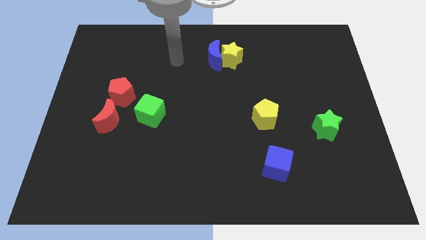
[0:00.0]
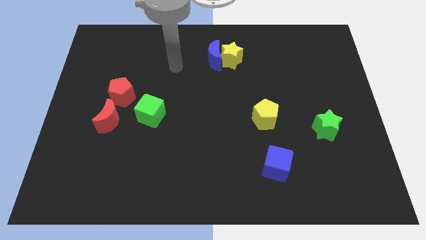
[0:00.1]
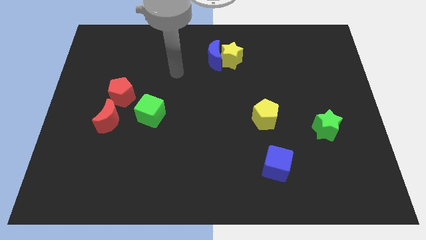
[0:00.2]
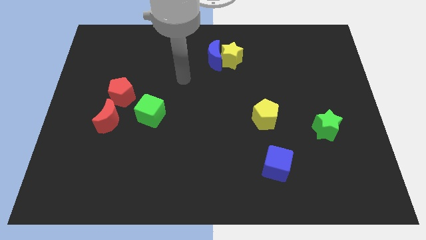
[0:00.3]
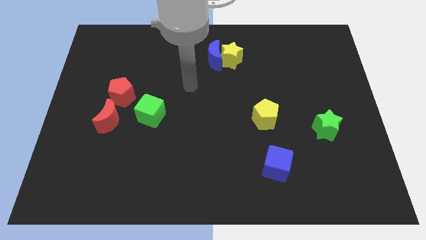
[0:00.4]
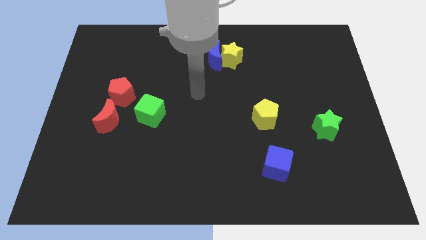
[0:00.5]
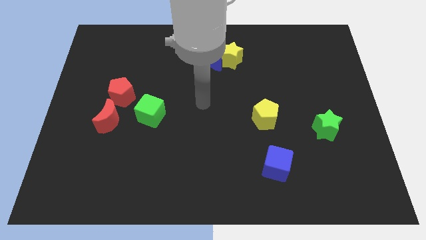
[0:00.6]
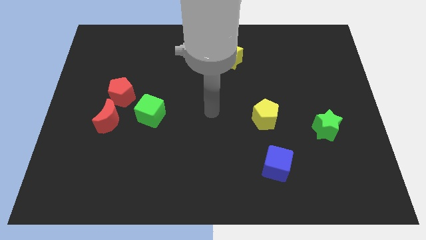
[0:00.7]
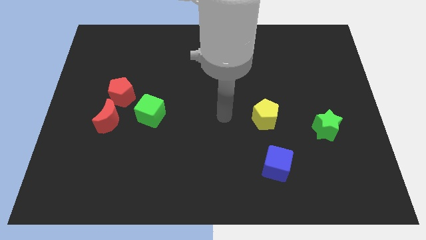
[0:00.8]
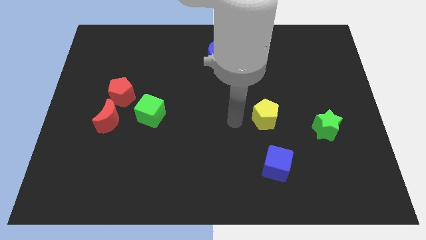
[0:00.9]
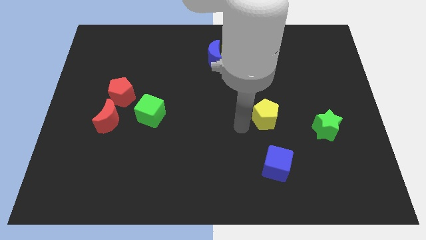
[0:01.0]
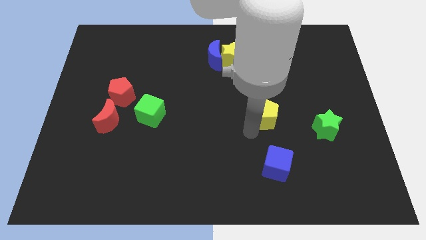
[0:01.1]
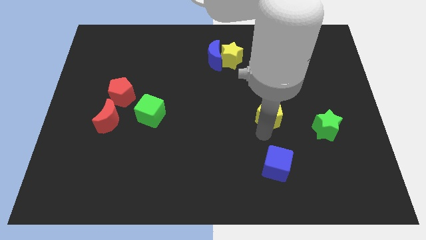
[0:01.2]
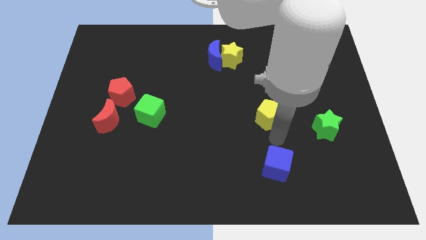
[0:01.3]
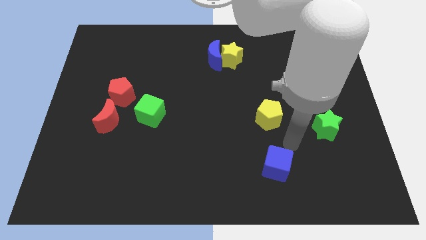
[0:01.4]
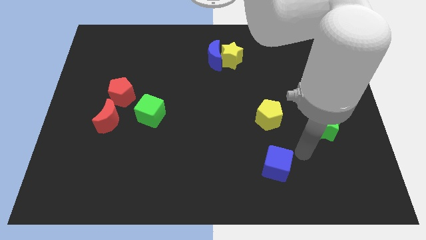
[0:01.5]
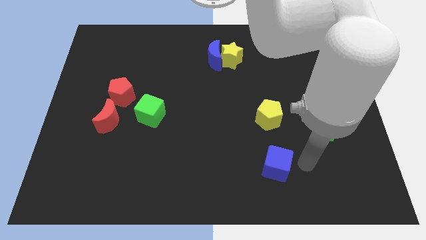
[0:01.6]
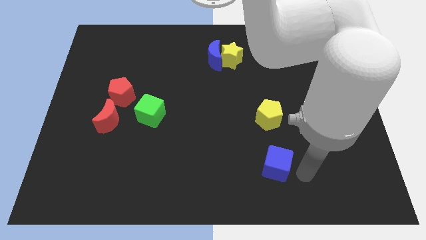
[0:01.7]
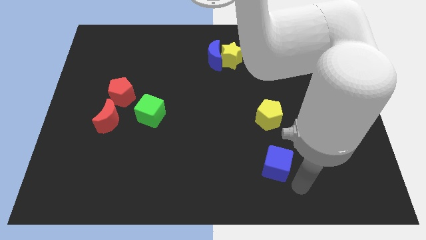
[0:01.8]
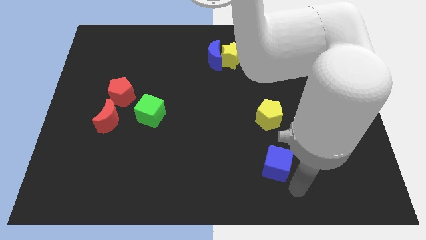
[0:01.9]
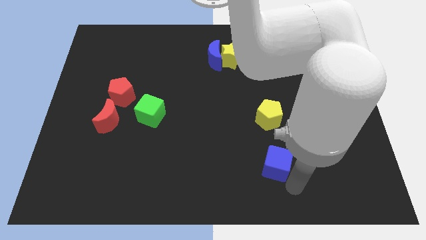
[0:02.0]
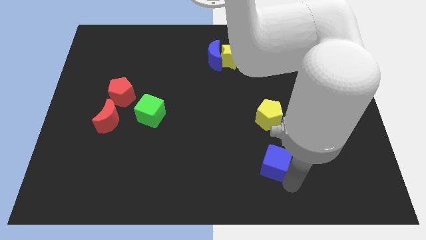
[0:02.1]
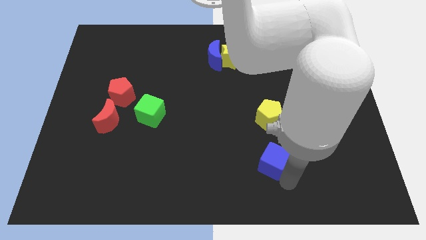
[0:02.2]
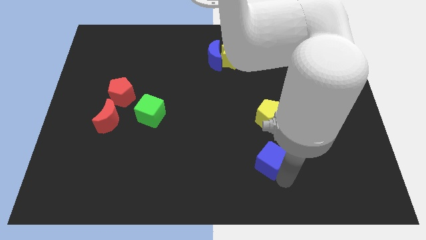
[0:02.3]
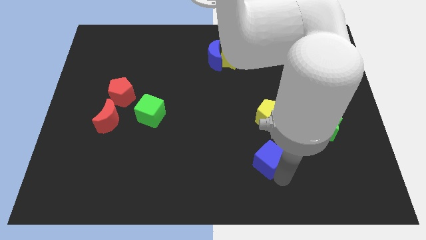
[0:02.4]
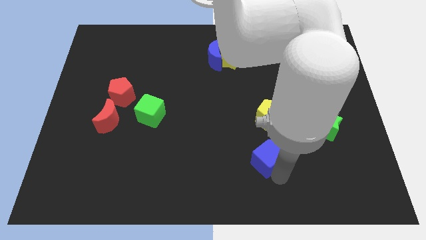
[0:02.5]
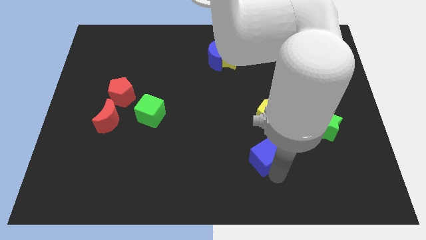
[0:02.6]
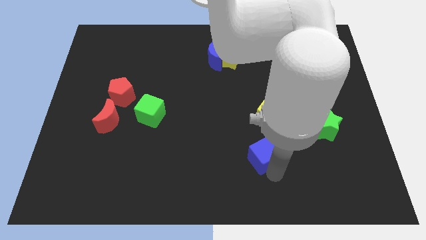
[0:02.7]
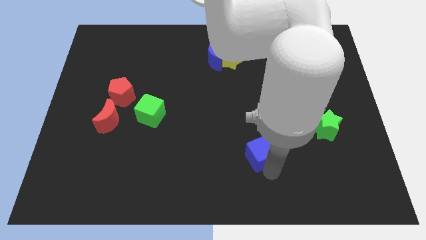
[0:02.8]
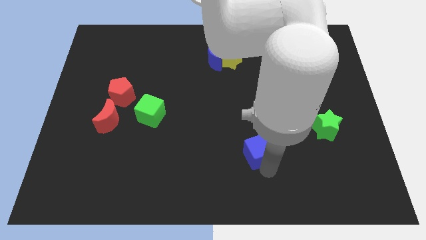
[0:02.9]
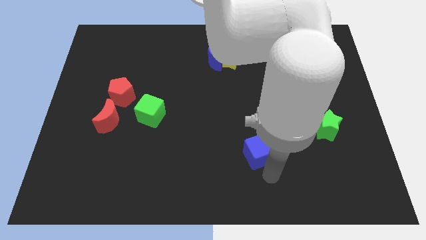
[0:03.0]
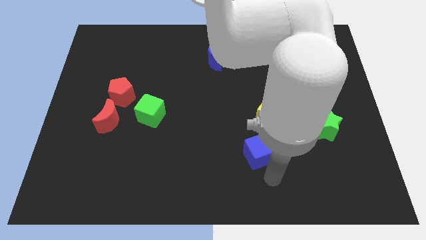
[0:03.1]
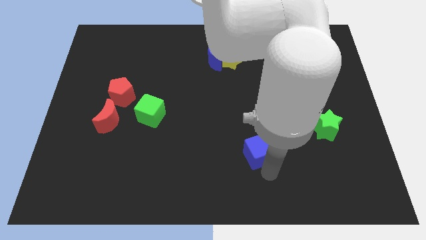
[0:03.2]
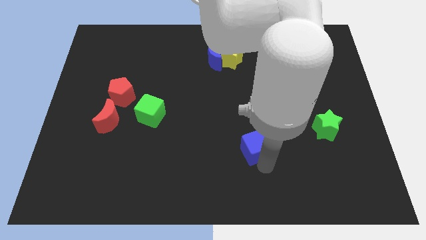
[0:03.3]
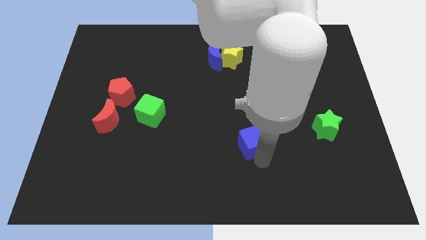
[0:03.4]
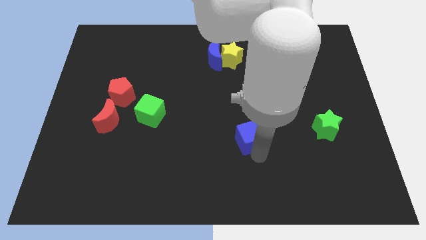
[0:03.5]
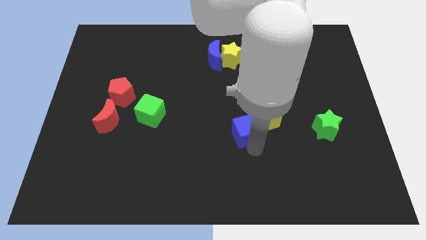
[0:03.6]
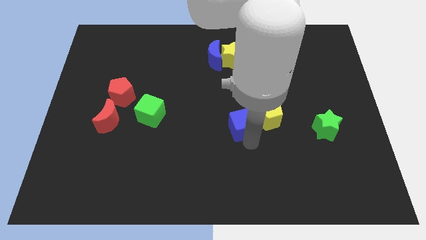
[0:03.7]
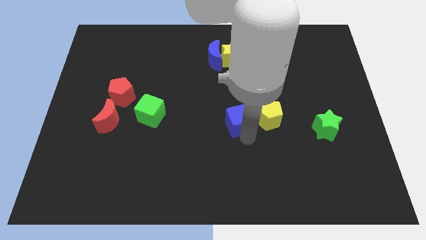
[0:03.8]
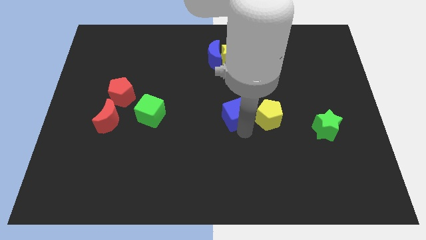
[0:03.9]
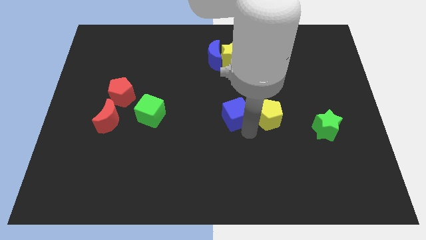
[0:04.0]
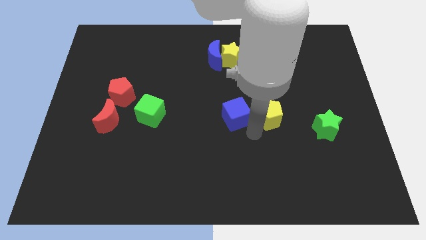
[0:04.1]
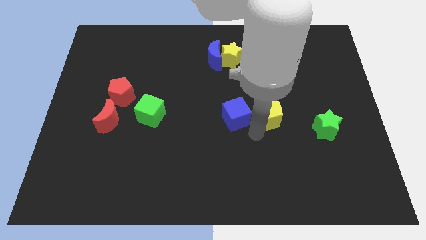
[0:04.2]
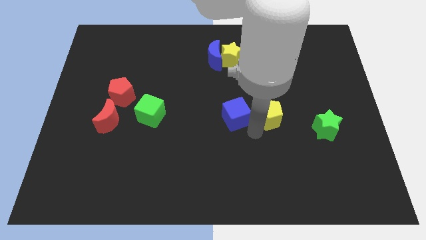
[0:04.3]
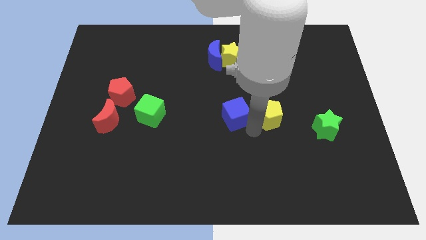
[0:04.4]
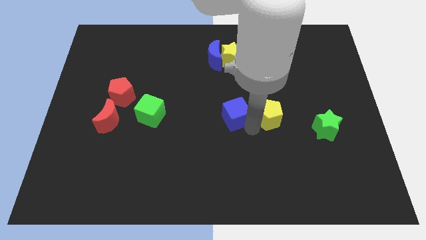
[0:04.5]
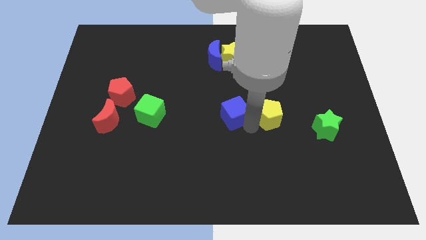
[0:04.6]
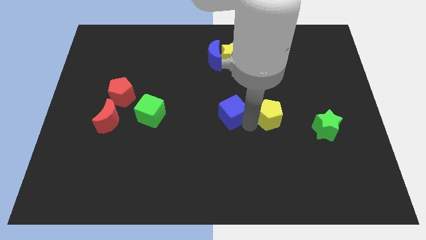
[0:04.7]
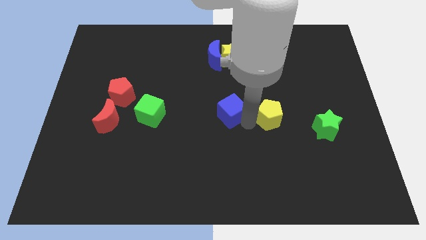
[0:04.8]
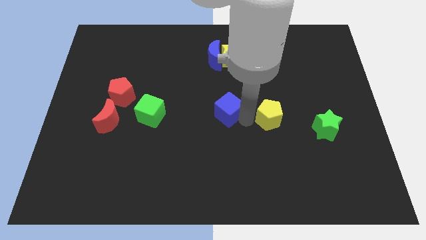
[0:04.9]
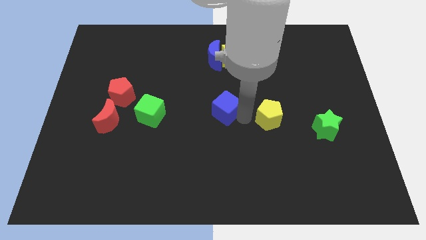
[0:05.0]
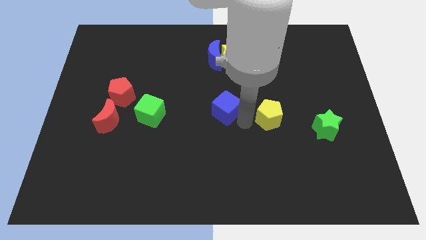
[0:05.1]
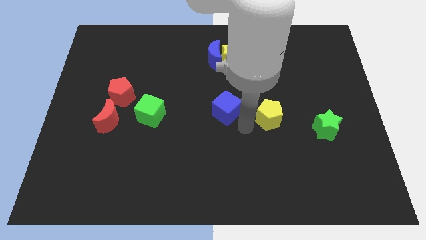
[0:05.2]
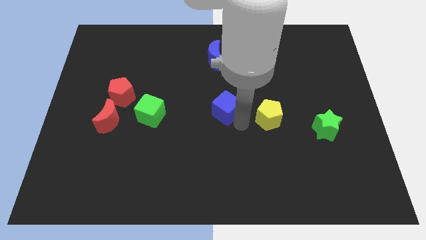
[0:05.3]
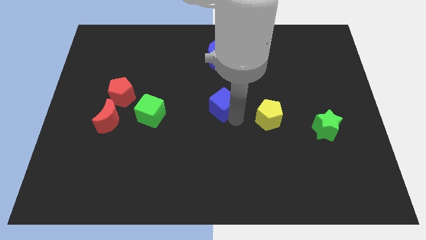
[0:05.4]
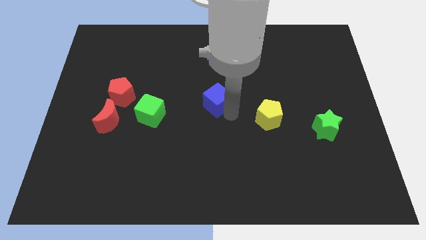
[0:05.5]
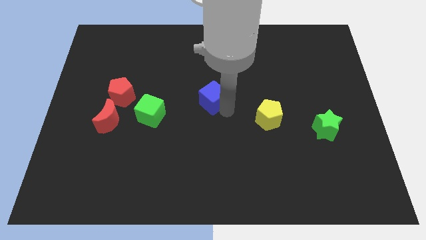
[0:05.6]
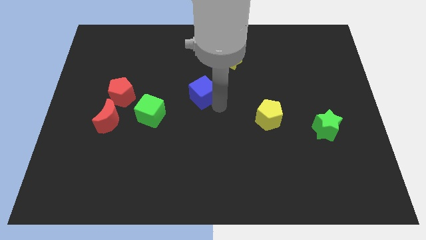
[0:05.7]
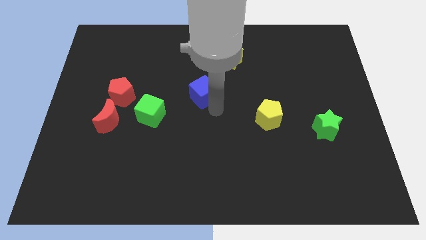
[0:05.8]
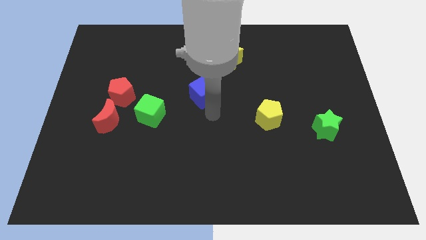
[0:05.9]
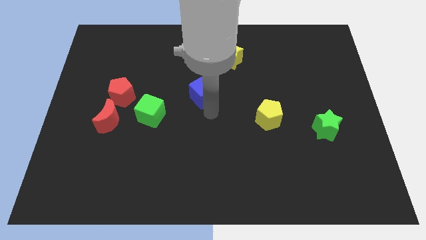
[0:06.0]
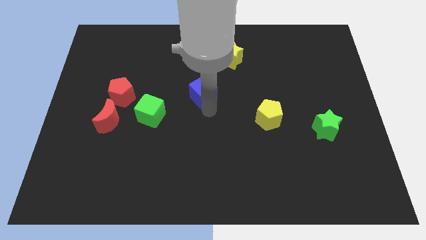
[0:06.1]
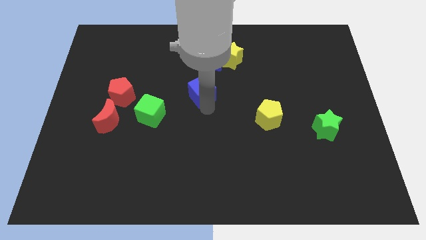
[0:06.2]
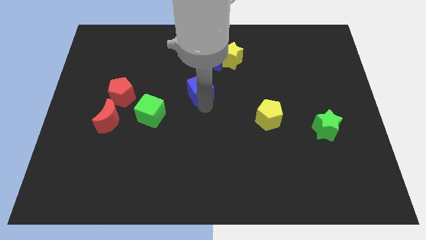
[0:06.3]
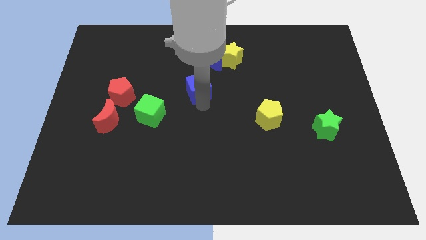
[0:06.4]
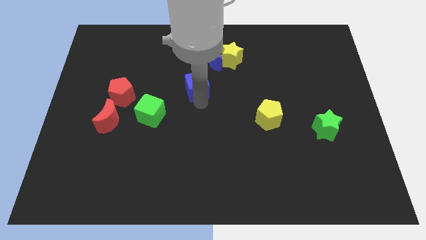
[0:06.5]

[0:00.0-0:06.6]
push the blue cube to the bottom left of the blue moon

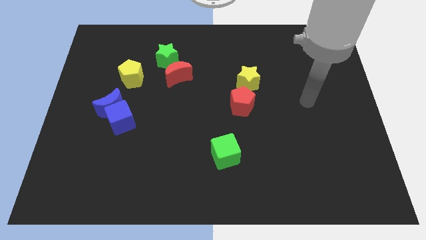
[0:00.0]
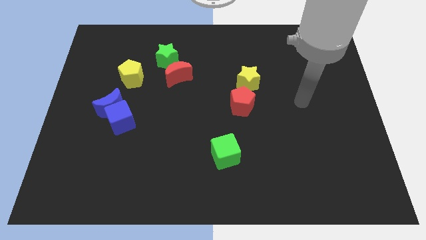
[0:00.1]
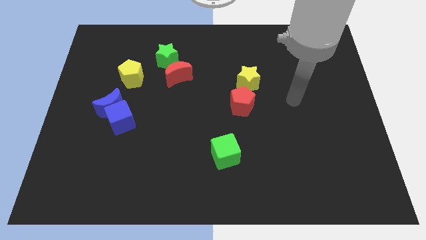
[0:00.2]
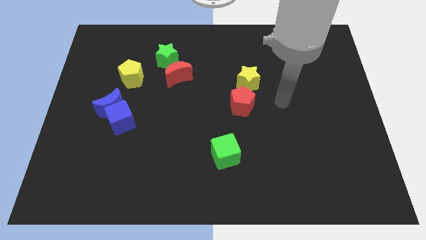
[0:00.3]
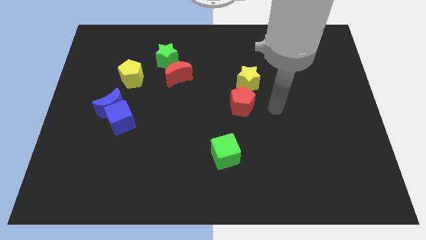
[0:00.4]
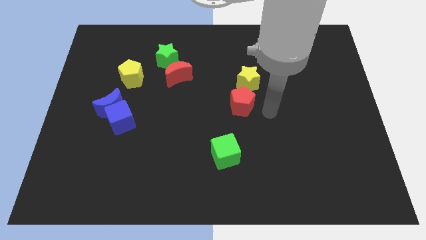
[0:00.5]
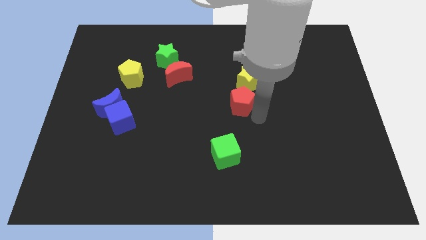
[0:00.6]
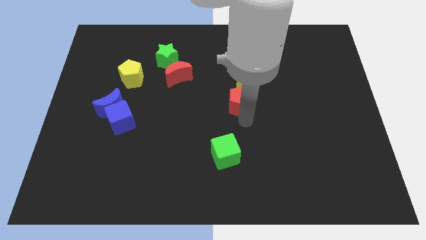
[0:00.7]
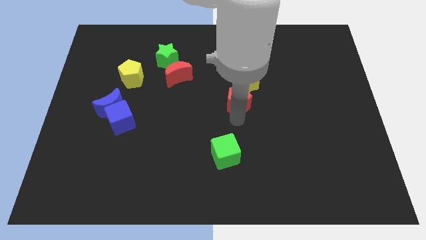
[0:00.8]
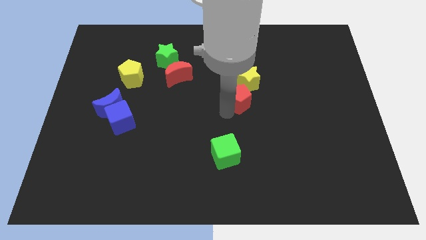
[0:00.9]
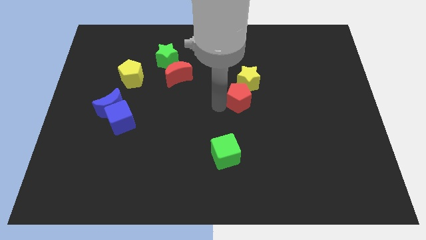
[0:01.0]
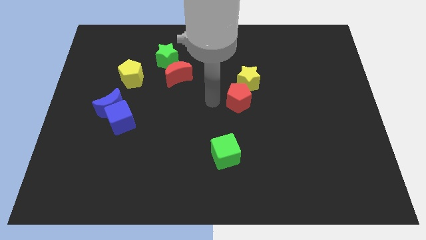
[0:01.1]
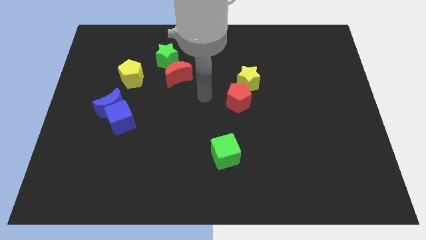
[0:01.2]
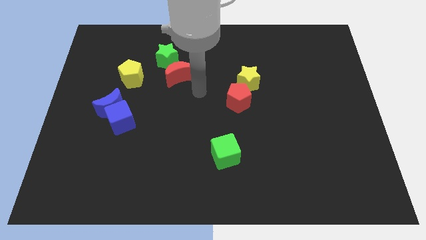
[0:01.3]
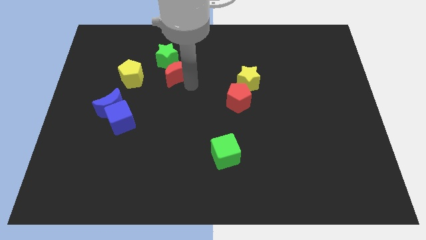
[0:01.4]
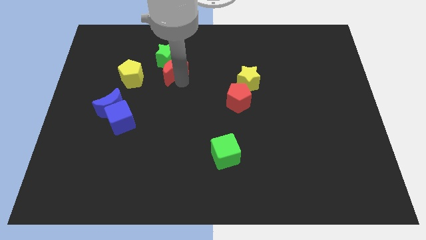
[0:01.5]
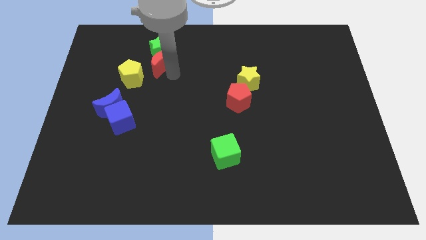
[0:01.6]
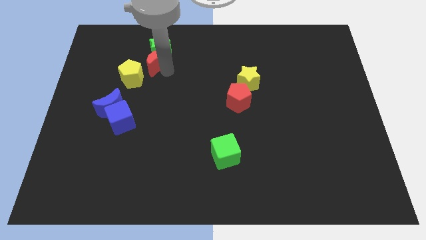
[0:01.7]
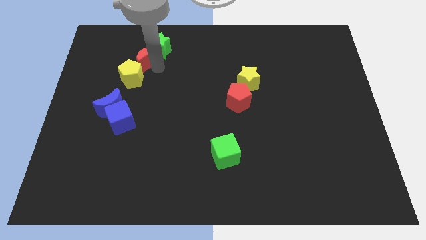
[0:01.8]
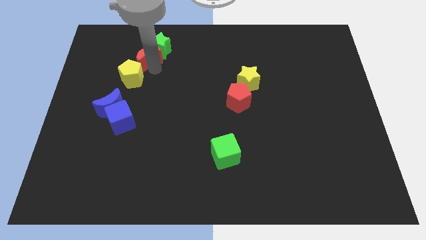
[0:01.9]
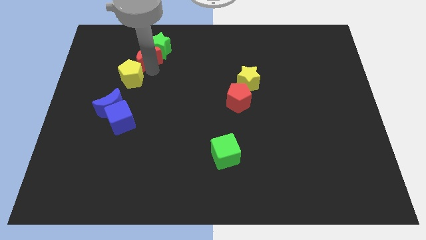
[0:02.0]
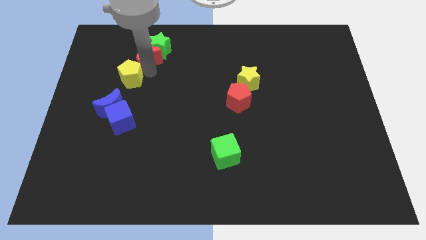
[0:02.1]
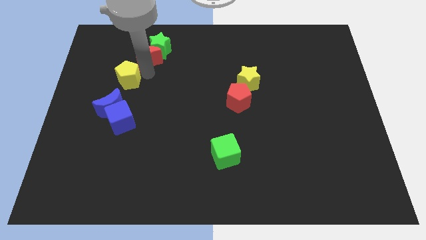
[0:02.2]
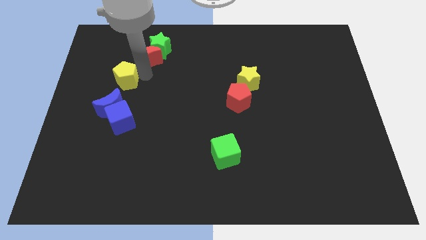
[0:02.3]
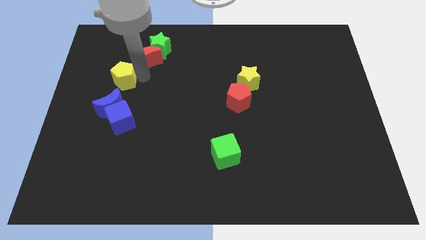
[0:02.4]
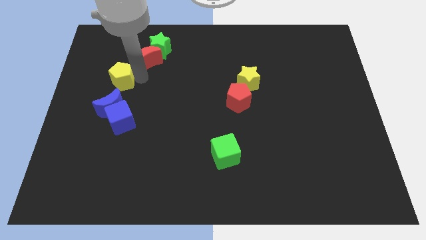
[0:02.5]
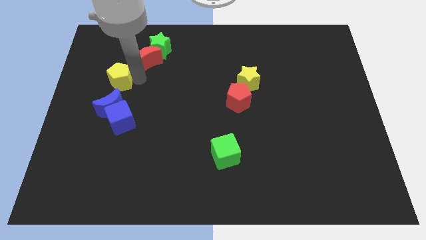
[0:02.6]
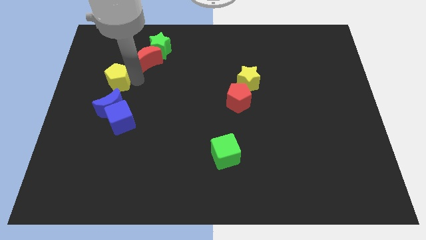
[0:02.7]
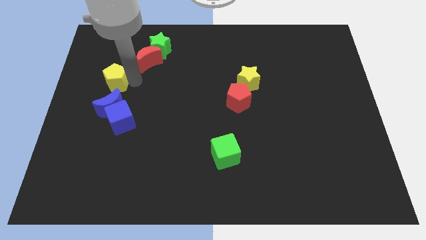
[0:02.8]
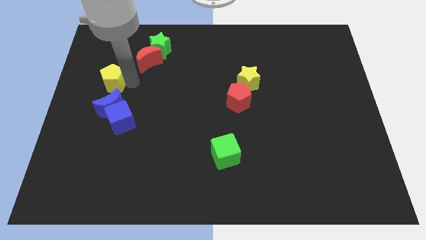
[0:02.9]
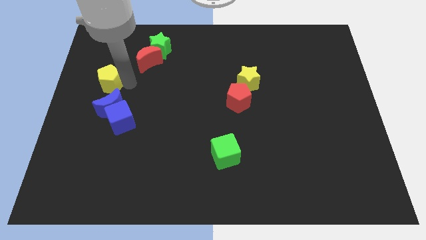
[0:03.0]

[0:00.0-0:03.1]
put the yellow pentagon diagonally up and to the left of the blue moon
